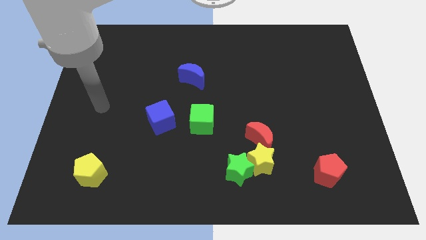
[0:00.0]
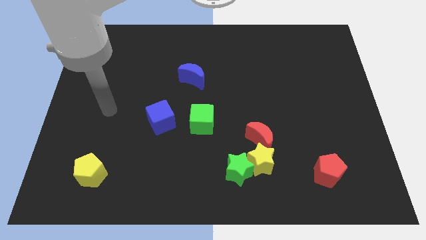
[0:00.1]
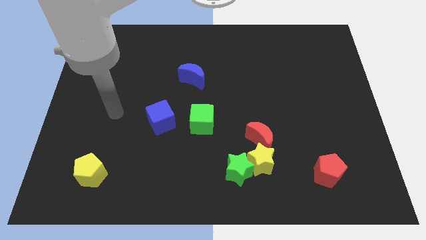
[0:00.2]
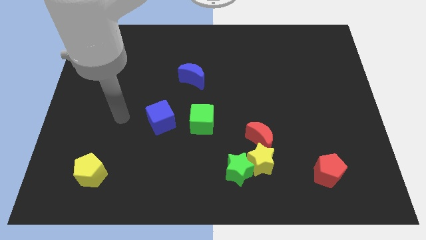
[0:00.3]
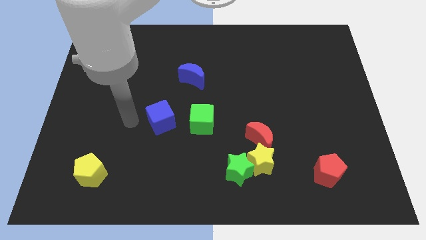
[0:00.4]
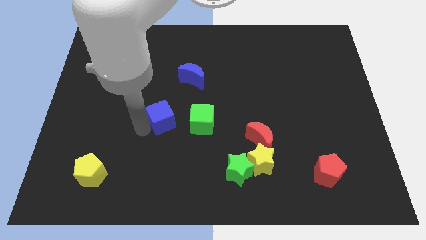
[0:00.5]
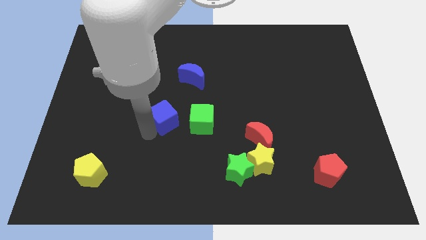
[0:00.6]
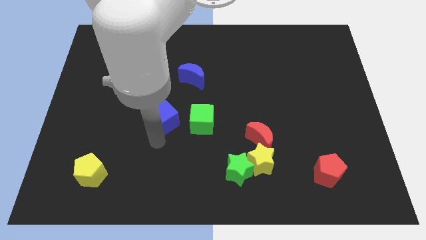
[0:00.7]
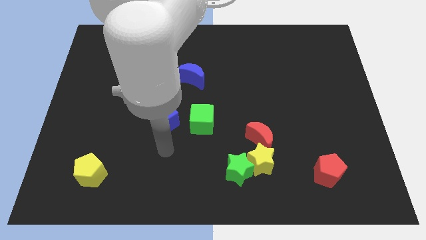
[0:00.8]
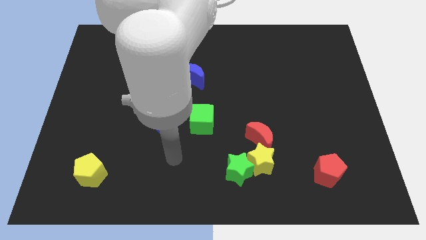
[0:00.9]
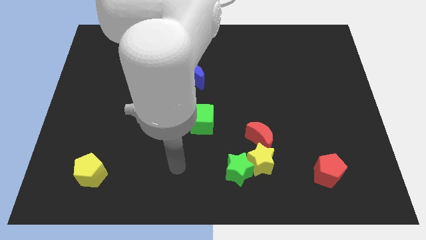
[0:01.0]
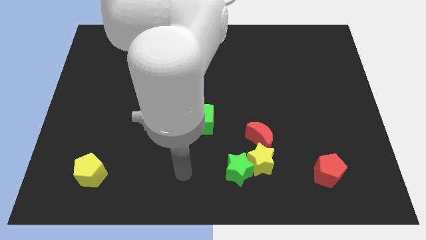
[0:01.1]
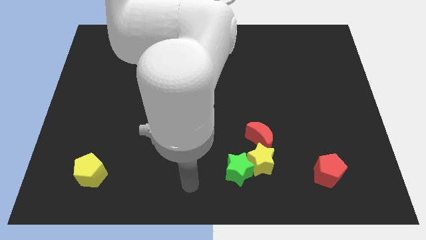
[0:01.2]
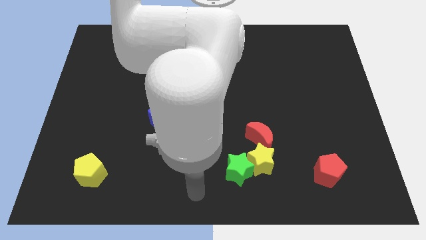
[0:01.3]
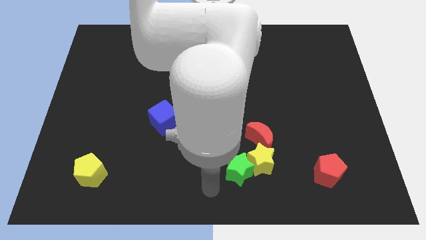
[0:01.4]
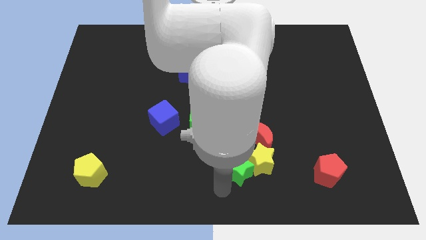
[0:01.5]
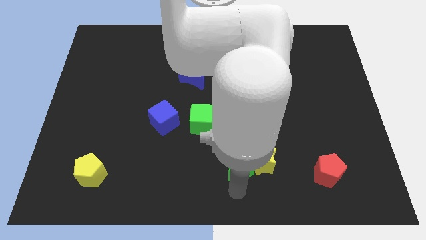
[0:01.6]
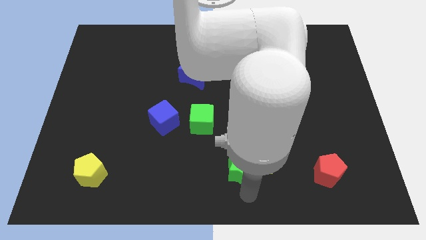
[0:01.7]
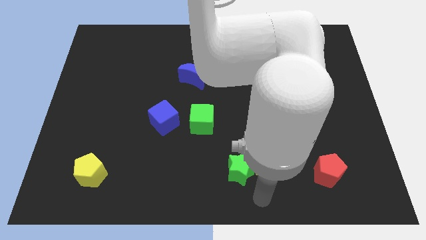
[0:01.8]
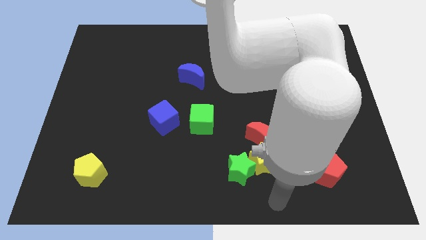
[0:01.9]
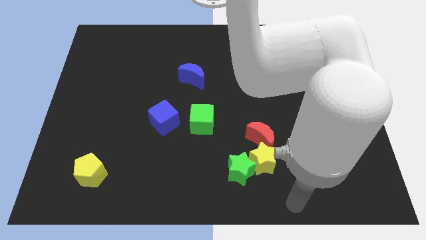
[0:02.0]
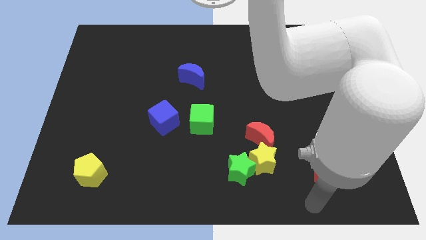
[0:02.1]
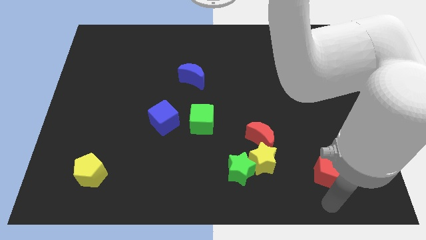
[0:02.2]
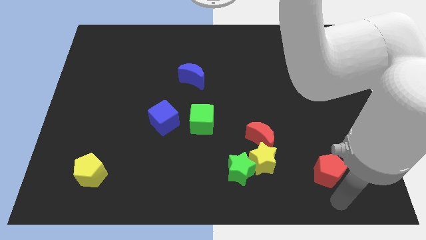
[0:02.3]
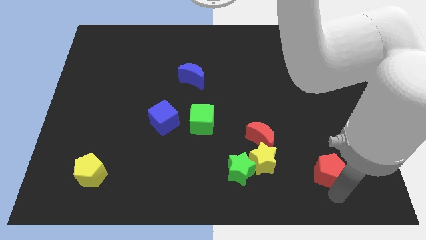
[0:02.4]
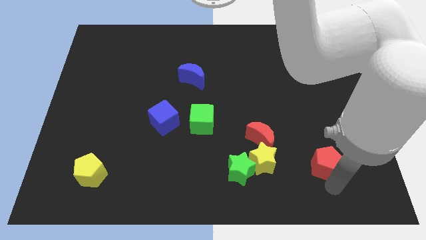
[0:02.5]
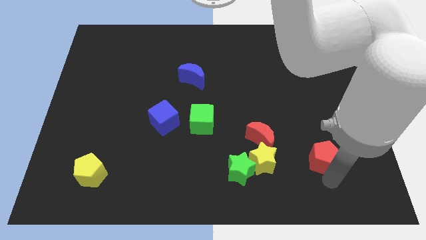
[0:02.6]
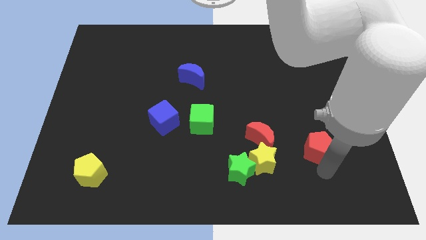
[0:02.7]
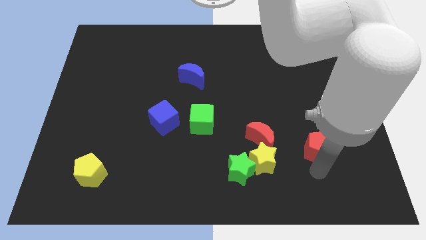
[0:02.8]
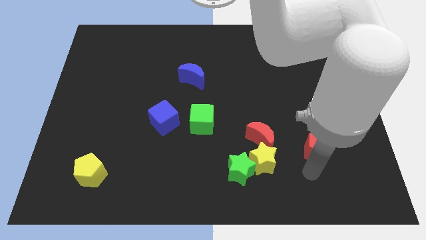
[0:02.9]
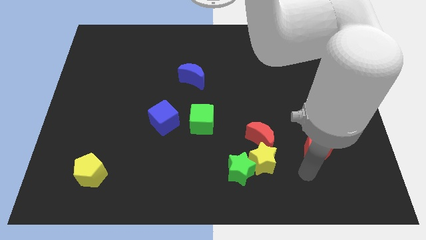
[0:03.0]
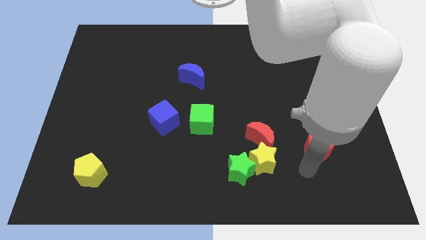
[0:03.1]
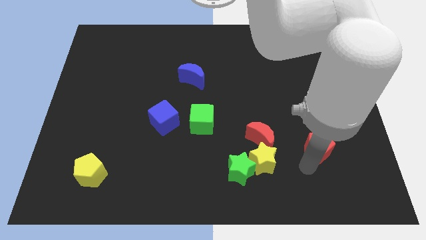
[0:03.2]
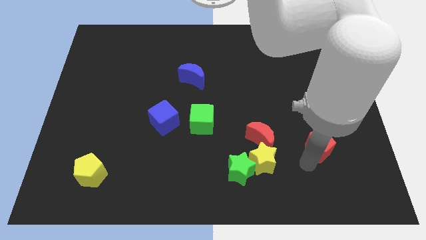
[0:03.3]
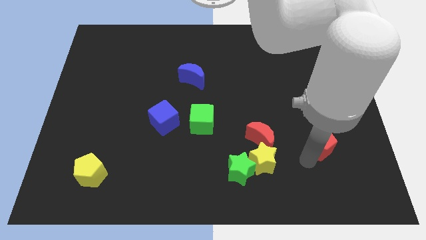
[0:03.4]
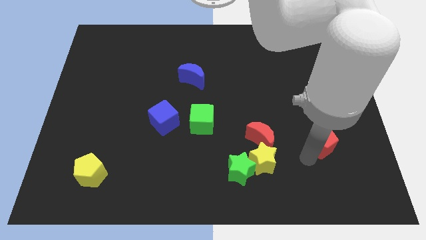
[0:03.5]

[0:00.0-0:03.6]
slightly push the red pentagon up

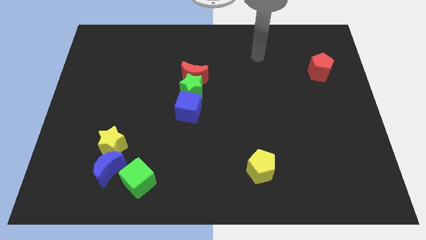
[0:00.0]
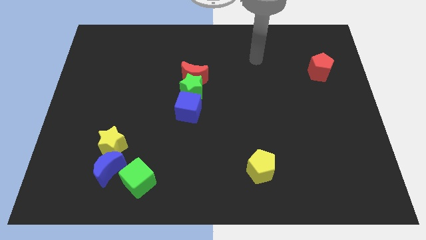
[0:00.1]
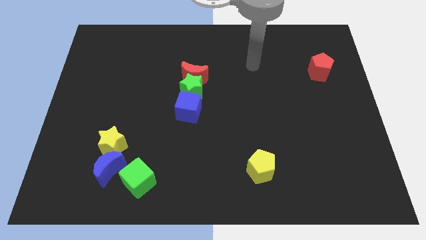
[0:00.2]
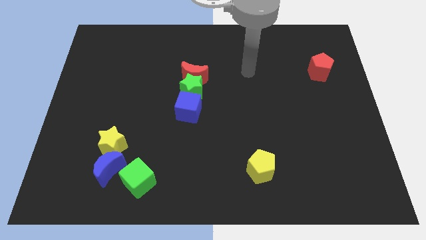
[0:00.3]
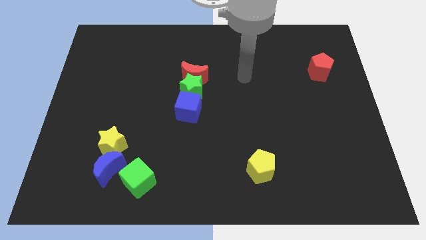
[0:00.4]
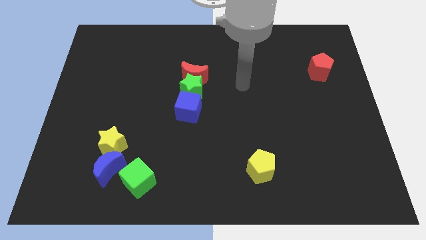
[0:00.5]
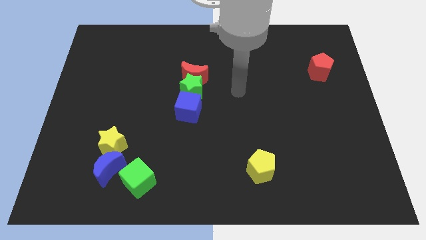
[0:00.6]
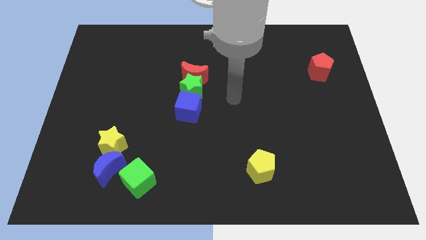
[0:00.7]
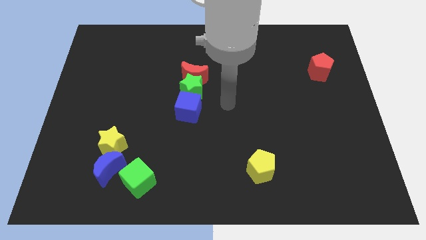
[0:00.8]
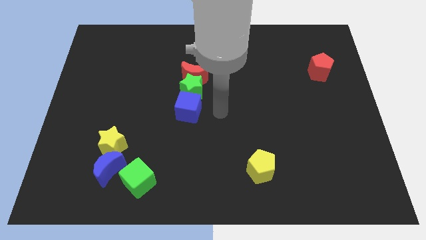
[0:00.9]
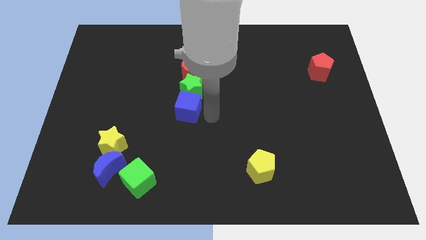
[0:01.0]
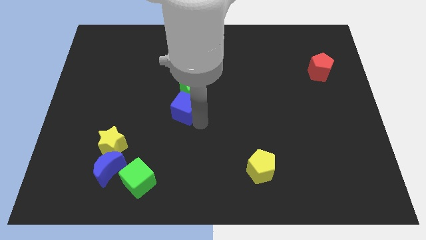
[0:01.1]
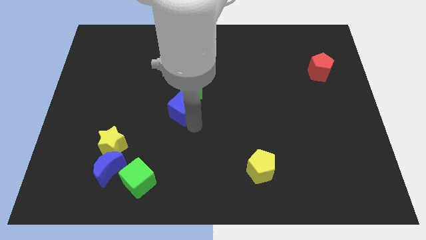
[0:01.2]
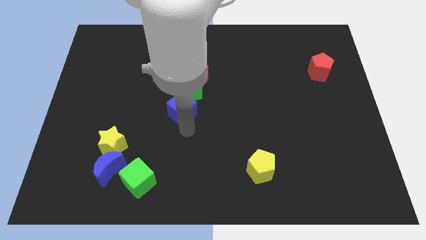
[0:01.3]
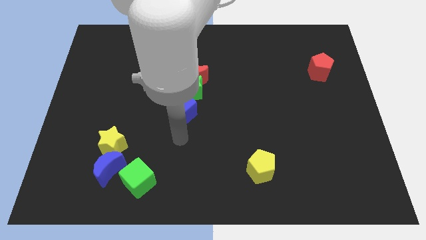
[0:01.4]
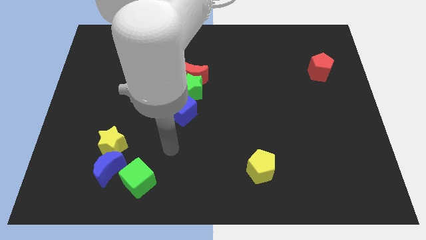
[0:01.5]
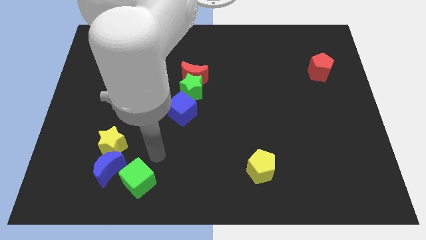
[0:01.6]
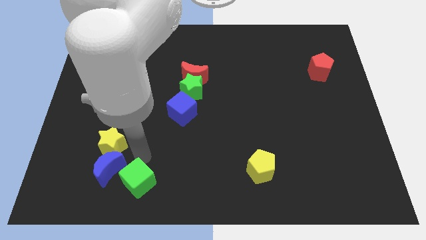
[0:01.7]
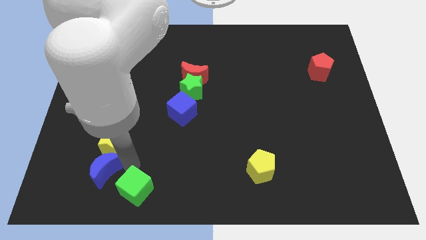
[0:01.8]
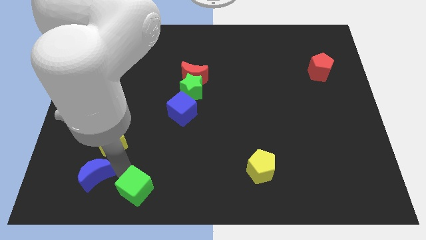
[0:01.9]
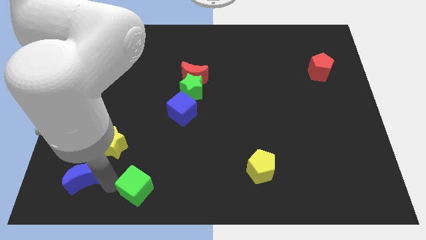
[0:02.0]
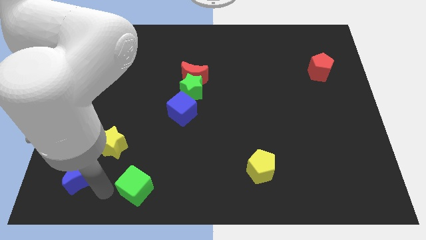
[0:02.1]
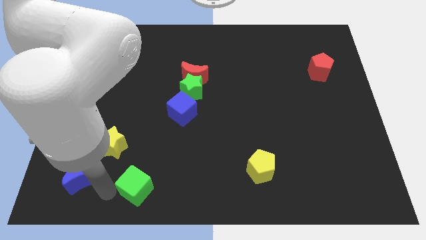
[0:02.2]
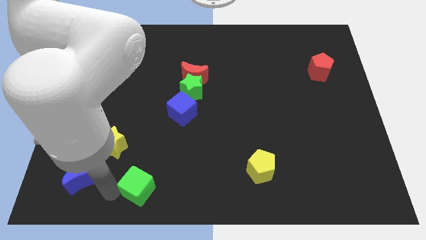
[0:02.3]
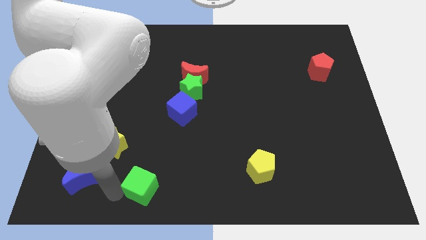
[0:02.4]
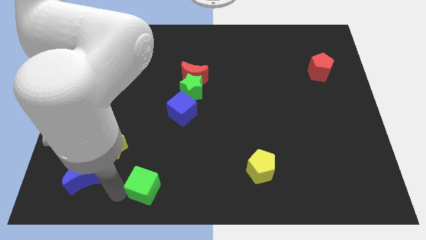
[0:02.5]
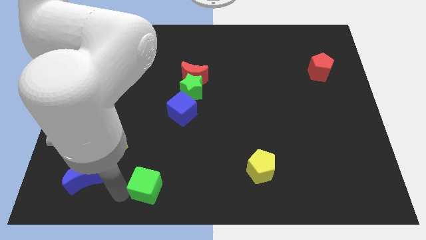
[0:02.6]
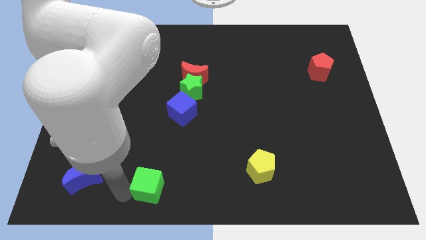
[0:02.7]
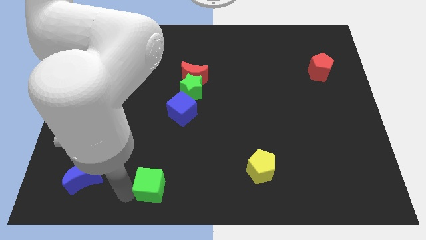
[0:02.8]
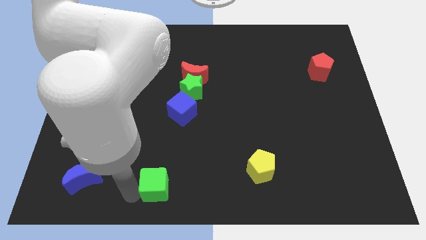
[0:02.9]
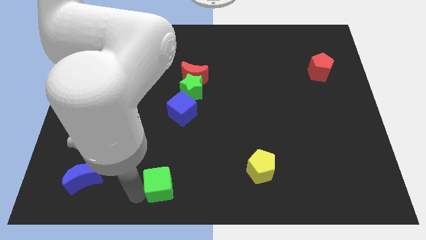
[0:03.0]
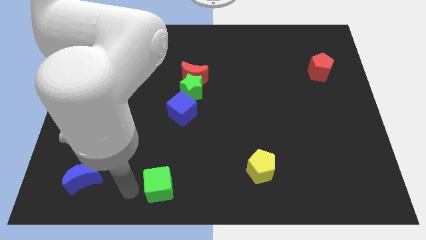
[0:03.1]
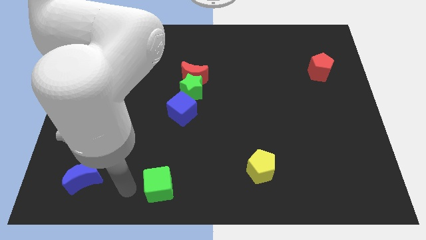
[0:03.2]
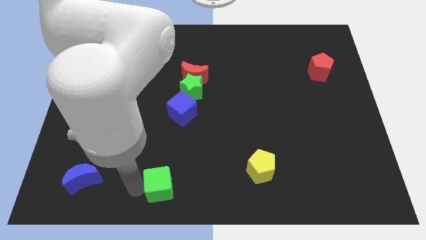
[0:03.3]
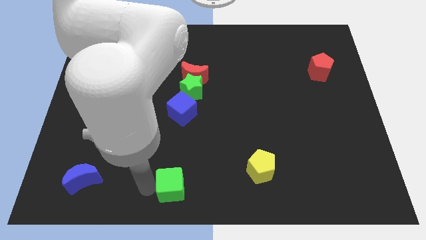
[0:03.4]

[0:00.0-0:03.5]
move the green cube to the right somewhat
